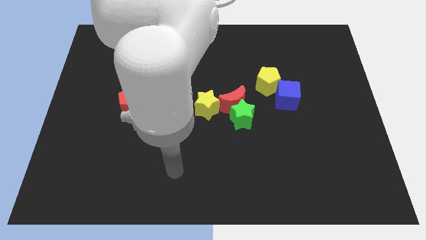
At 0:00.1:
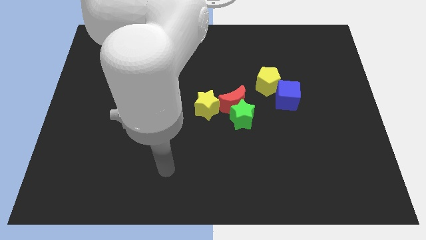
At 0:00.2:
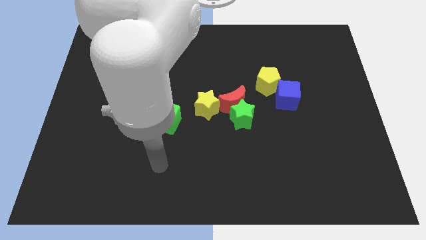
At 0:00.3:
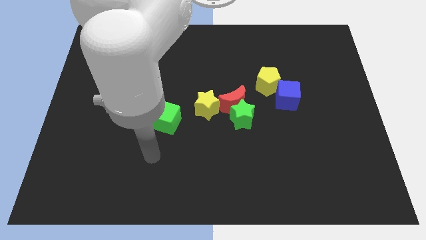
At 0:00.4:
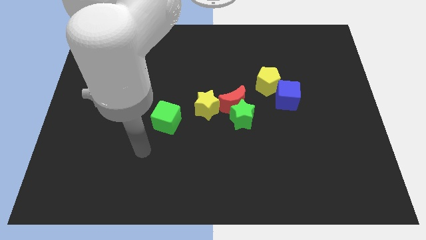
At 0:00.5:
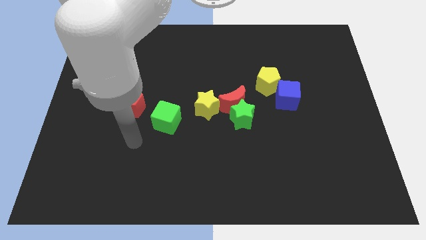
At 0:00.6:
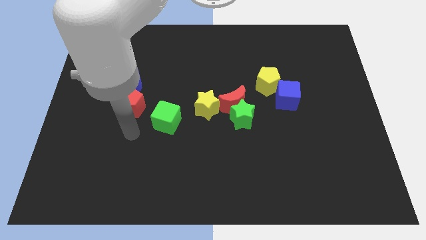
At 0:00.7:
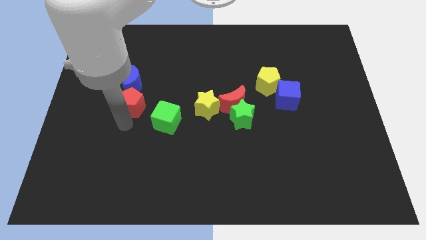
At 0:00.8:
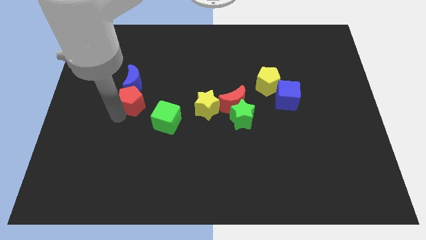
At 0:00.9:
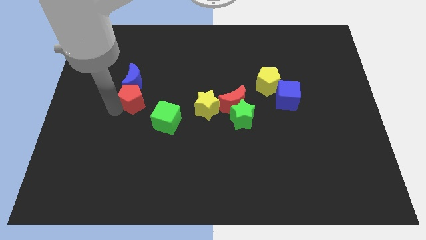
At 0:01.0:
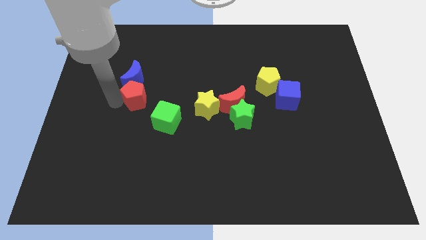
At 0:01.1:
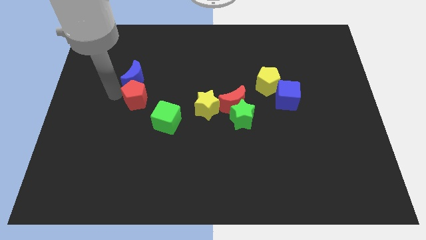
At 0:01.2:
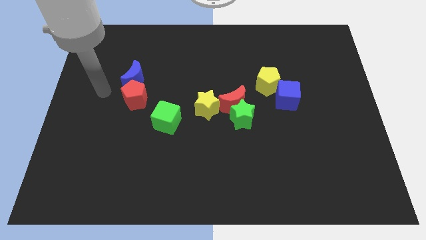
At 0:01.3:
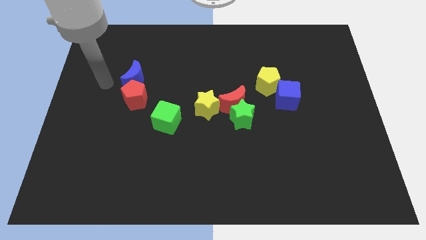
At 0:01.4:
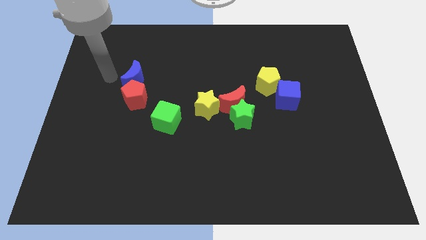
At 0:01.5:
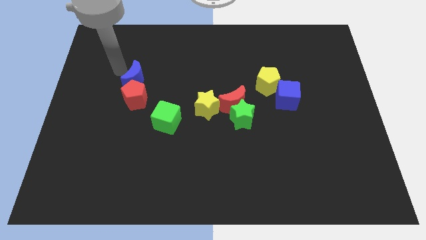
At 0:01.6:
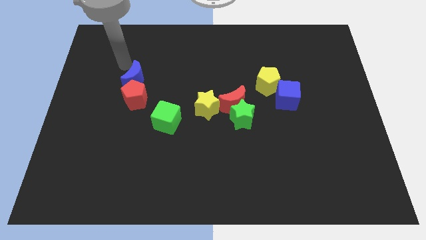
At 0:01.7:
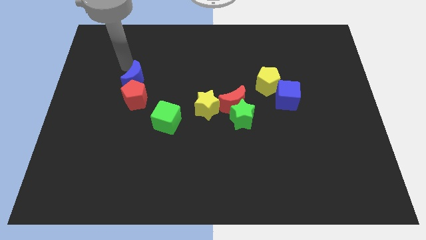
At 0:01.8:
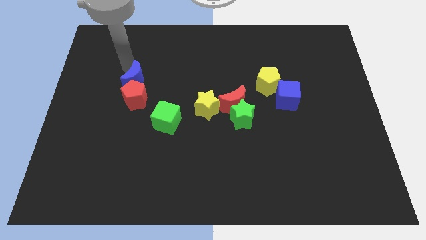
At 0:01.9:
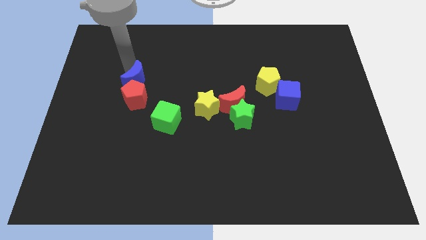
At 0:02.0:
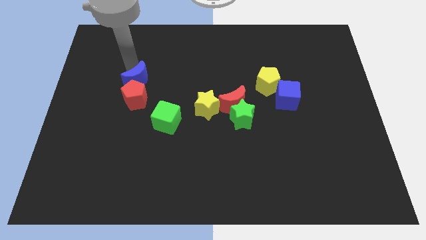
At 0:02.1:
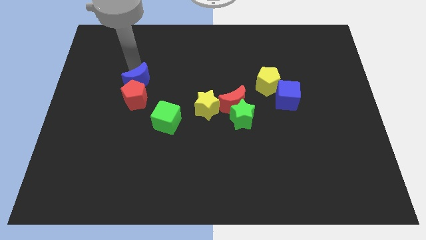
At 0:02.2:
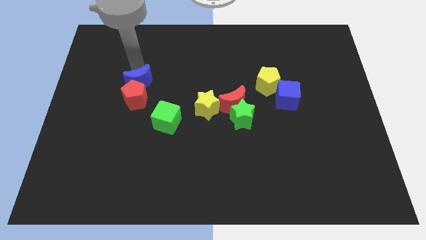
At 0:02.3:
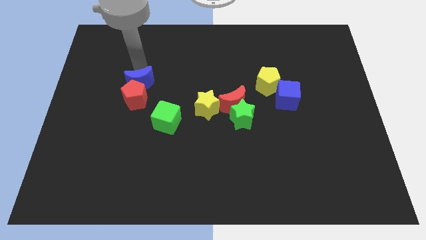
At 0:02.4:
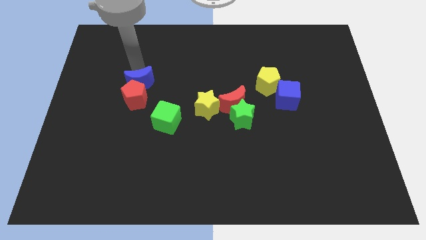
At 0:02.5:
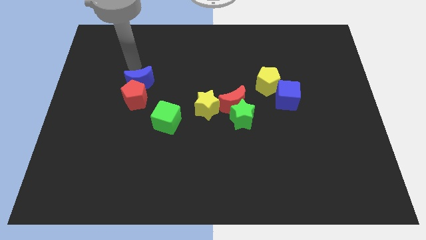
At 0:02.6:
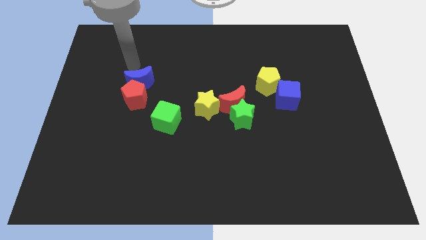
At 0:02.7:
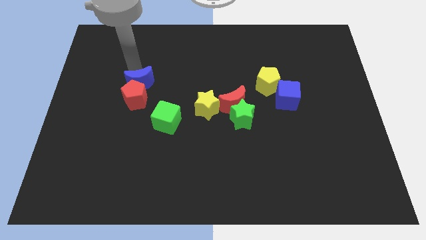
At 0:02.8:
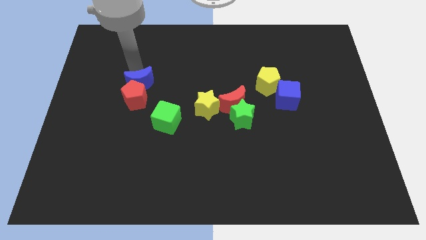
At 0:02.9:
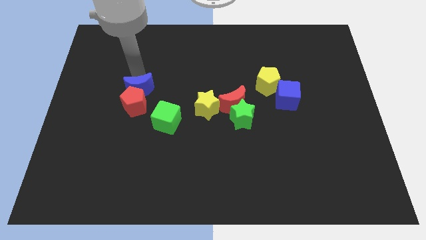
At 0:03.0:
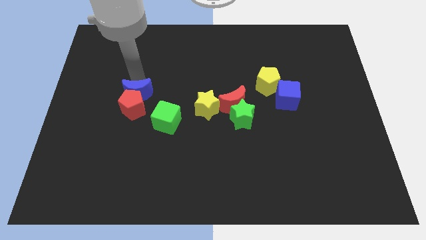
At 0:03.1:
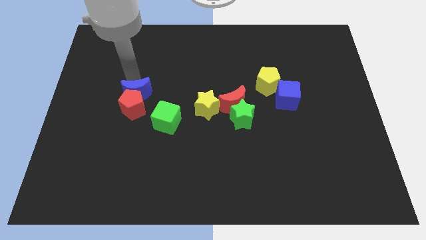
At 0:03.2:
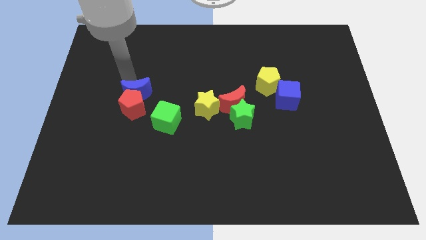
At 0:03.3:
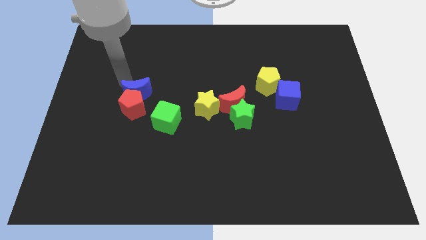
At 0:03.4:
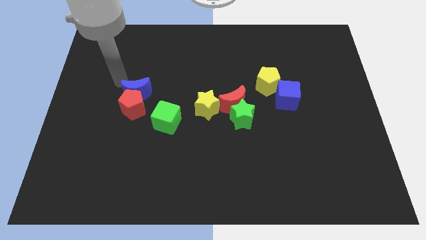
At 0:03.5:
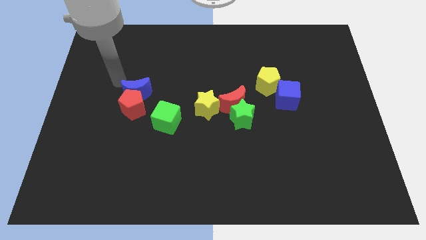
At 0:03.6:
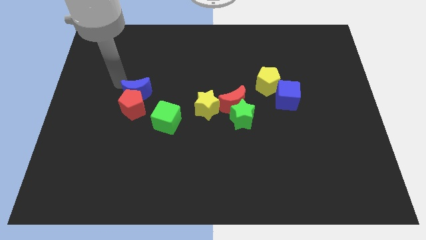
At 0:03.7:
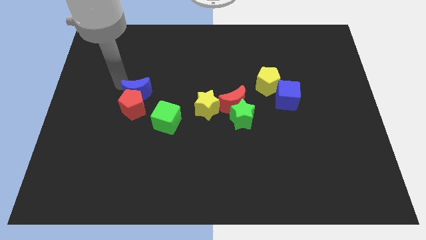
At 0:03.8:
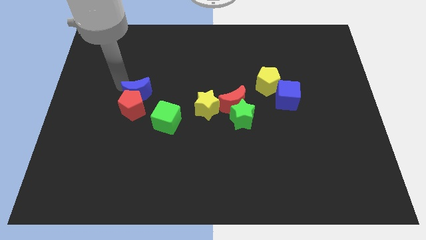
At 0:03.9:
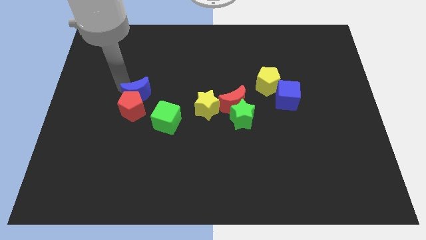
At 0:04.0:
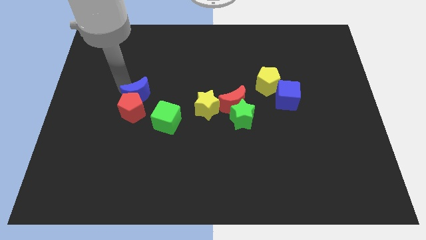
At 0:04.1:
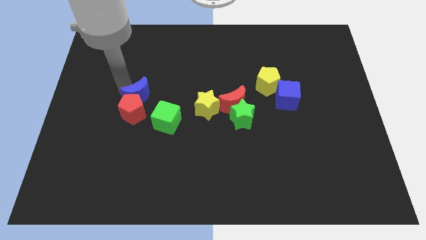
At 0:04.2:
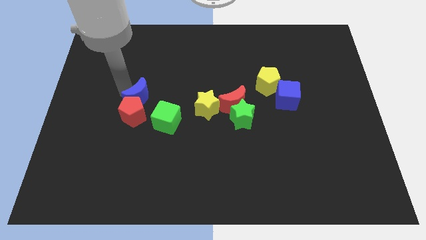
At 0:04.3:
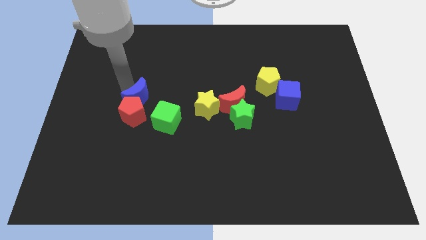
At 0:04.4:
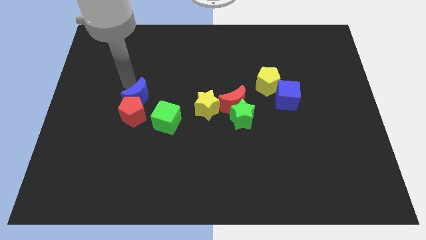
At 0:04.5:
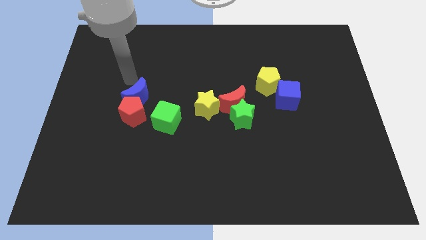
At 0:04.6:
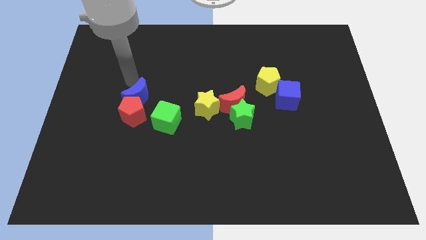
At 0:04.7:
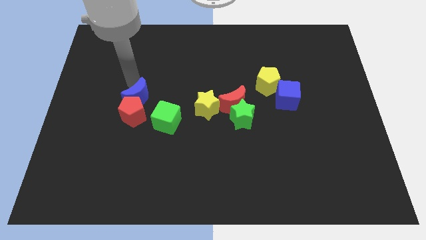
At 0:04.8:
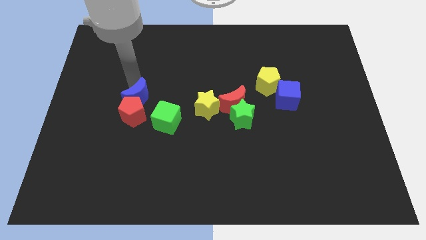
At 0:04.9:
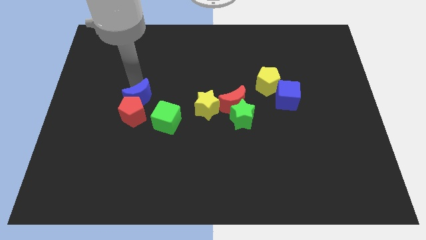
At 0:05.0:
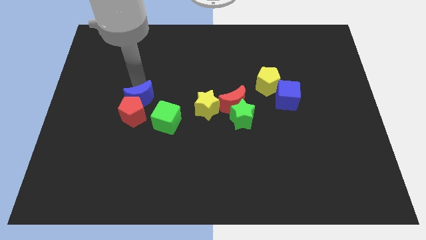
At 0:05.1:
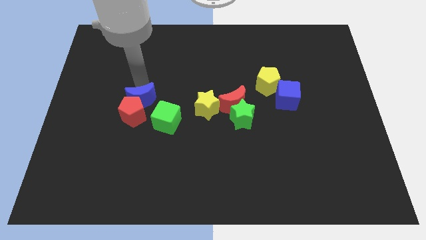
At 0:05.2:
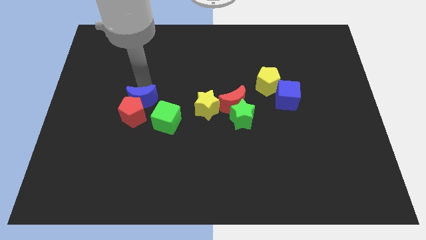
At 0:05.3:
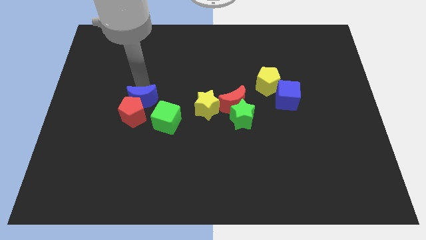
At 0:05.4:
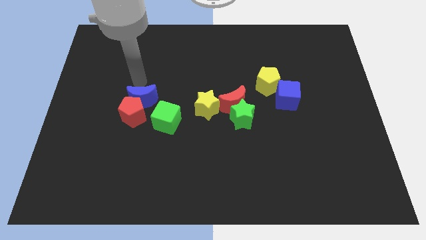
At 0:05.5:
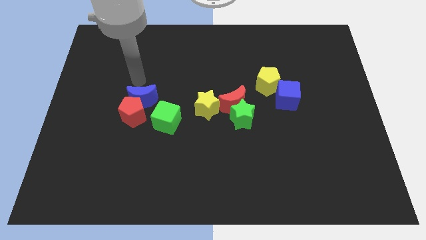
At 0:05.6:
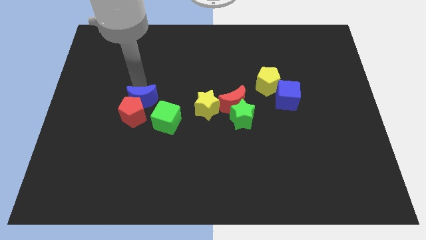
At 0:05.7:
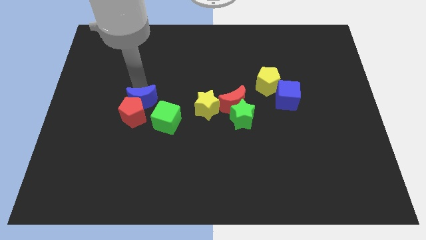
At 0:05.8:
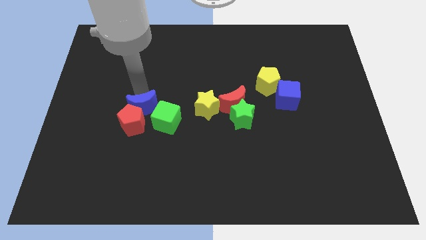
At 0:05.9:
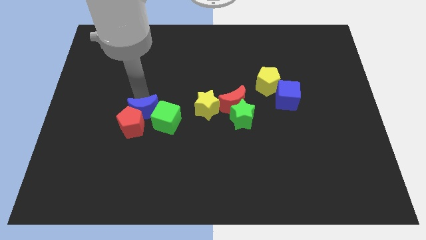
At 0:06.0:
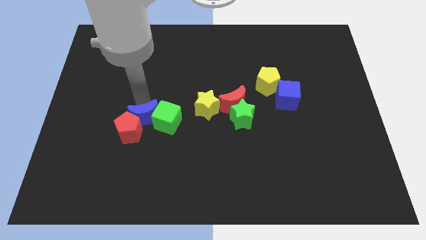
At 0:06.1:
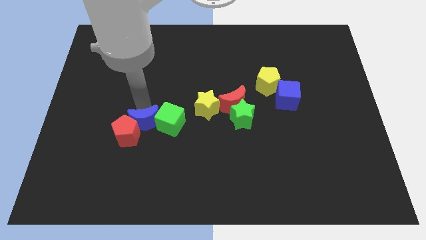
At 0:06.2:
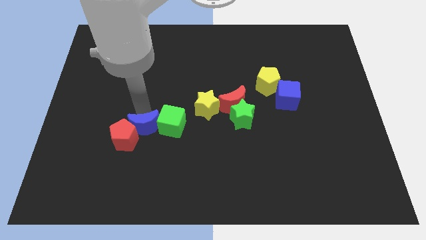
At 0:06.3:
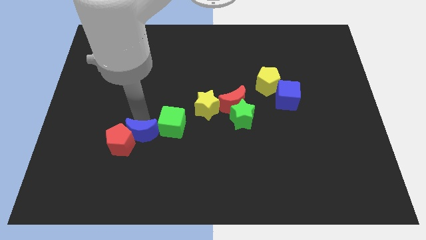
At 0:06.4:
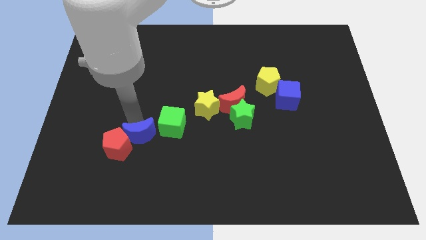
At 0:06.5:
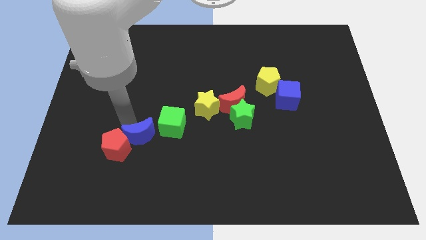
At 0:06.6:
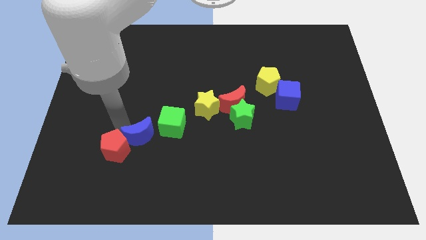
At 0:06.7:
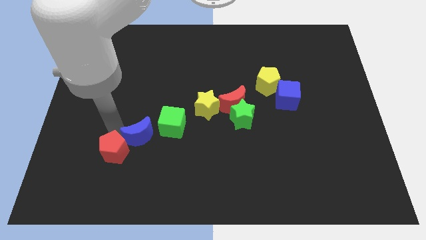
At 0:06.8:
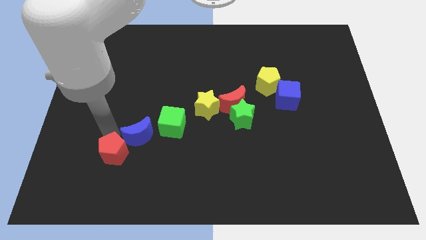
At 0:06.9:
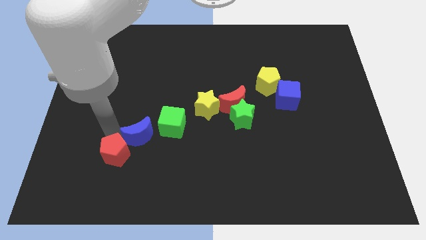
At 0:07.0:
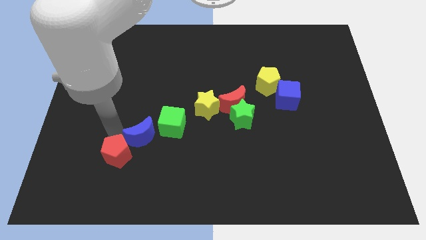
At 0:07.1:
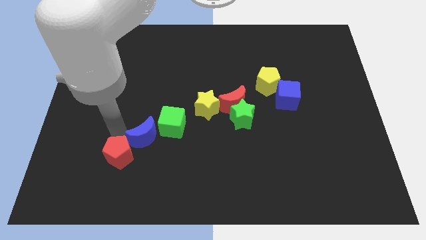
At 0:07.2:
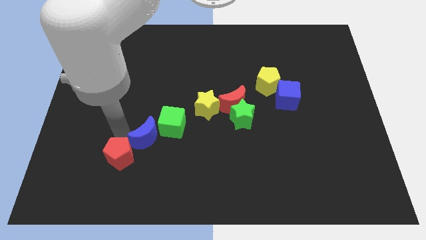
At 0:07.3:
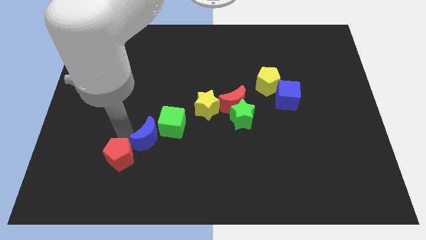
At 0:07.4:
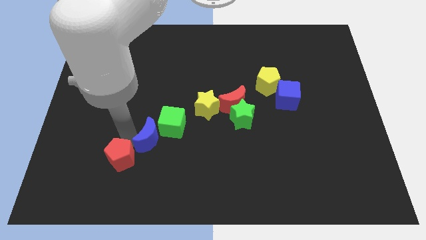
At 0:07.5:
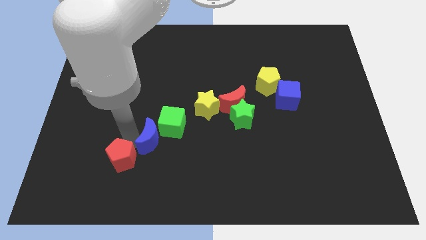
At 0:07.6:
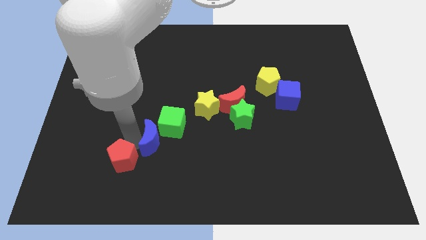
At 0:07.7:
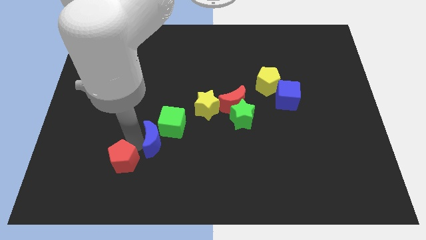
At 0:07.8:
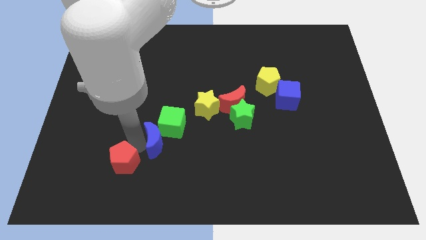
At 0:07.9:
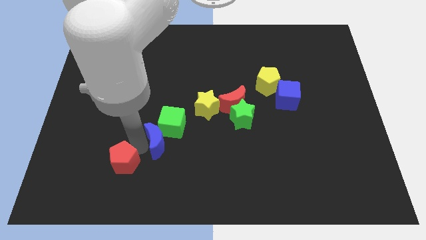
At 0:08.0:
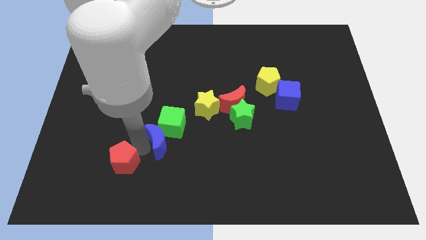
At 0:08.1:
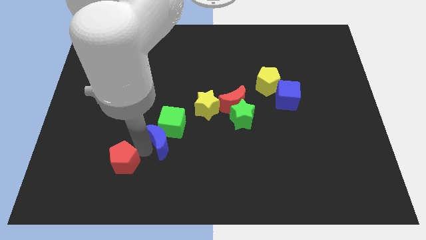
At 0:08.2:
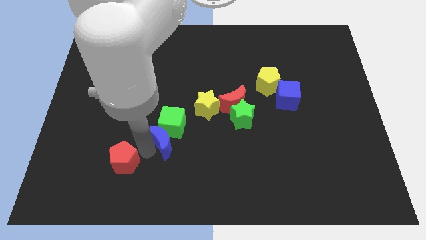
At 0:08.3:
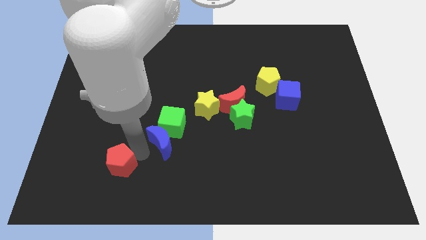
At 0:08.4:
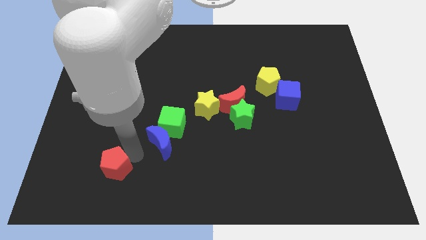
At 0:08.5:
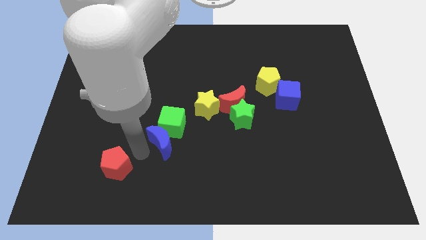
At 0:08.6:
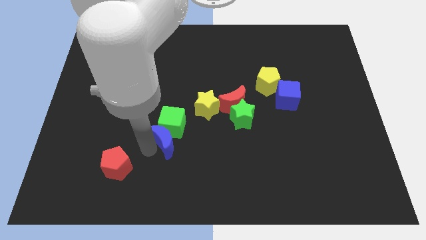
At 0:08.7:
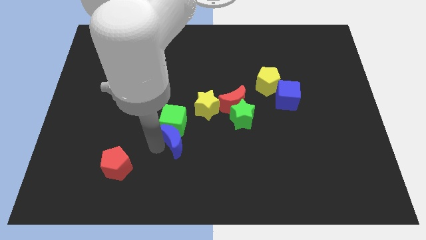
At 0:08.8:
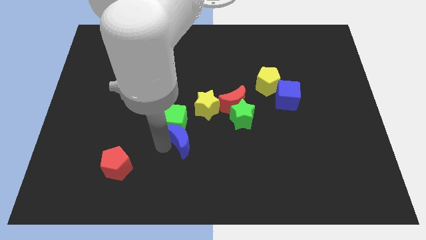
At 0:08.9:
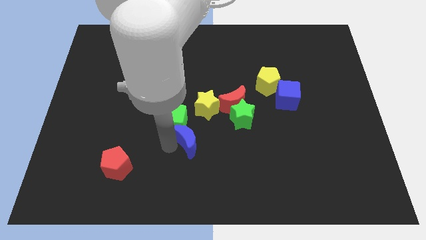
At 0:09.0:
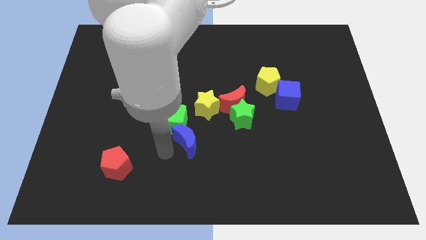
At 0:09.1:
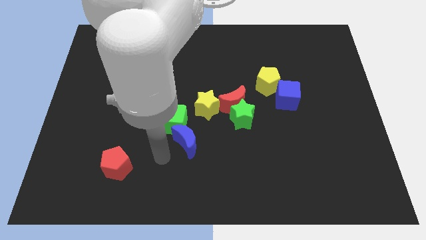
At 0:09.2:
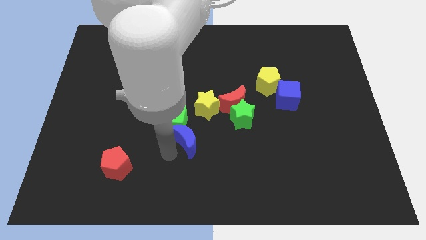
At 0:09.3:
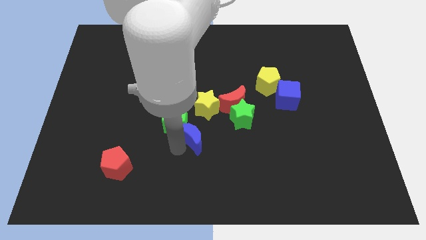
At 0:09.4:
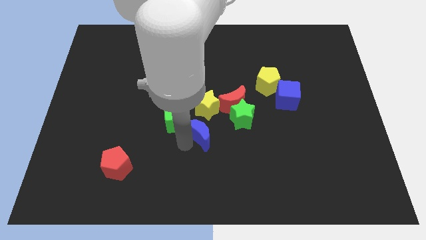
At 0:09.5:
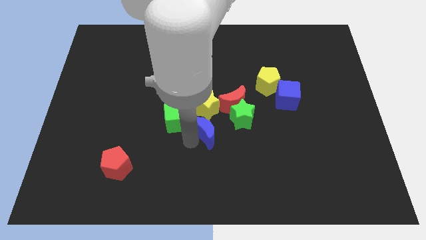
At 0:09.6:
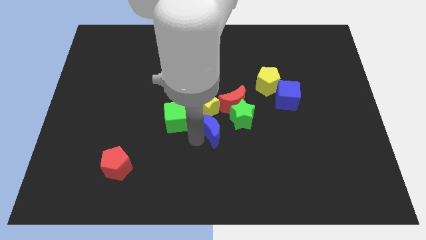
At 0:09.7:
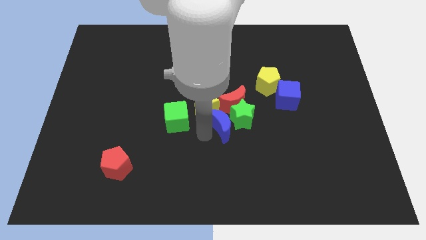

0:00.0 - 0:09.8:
put the blue moon to the green star
